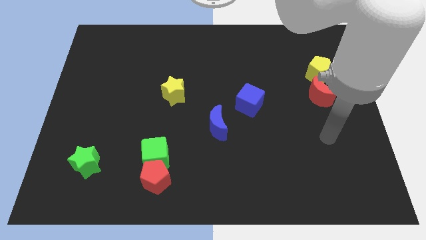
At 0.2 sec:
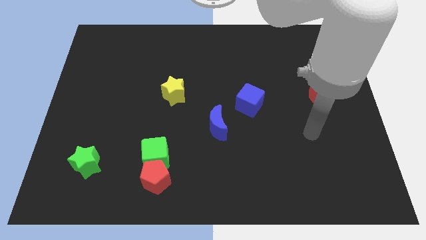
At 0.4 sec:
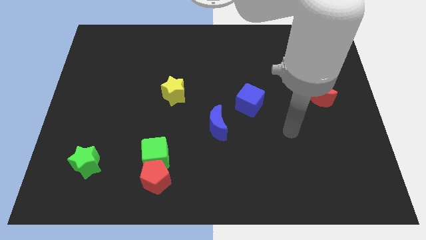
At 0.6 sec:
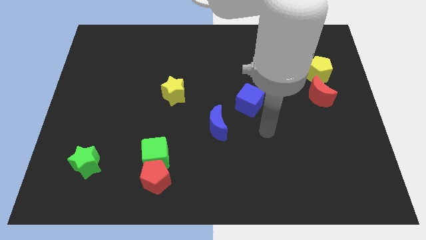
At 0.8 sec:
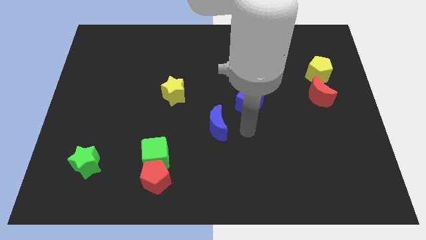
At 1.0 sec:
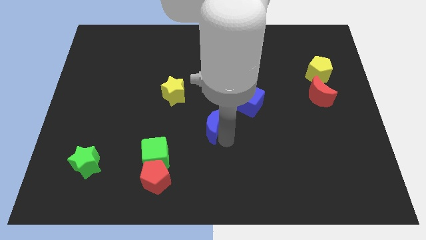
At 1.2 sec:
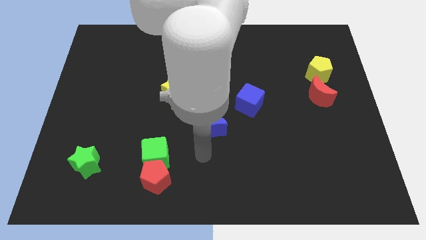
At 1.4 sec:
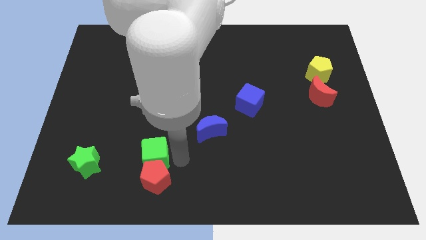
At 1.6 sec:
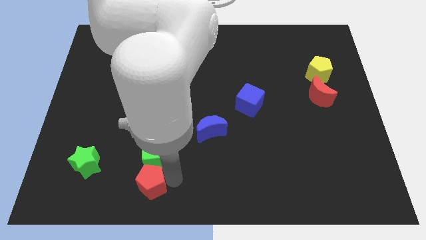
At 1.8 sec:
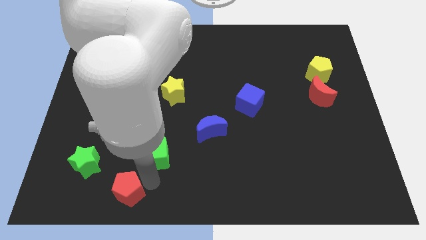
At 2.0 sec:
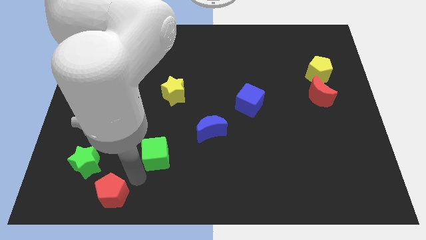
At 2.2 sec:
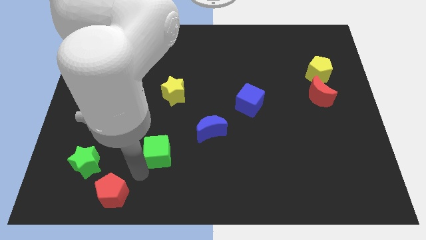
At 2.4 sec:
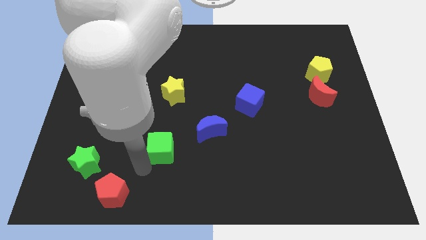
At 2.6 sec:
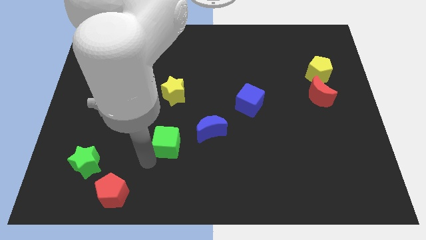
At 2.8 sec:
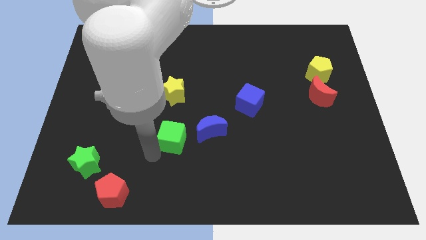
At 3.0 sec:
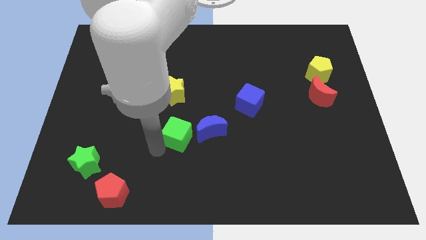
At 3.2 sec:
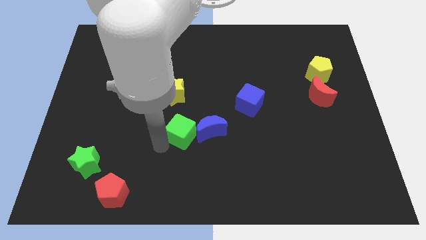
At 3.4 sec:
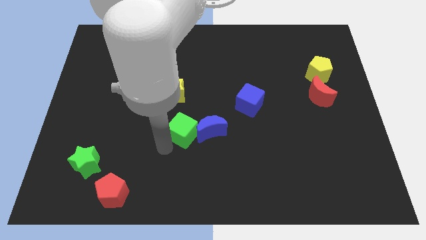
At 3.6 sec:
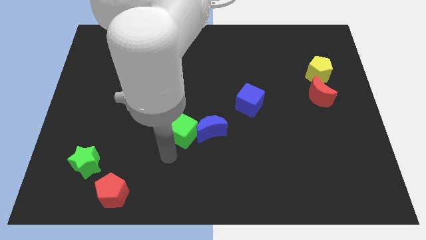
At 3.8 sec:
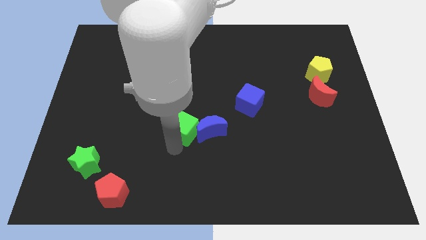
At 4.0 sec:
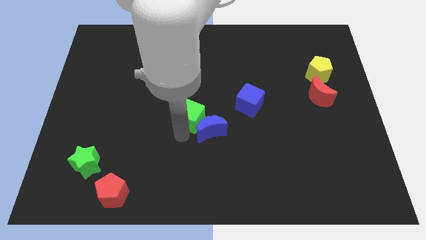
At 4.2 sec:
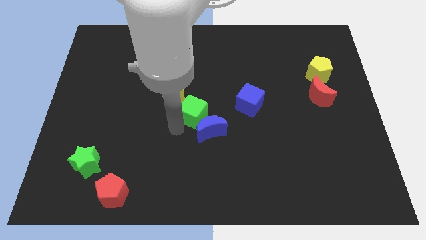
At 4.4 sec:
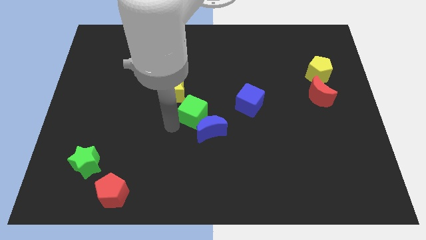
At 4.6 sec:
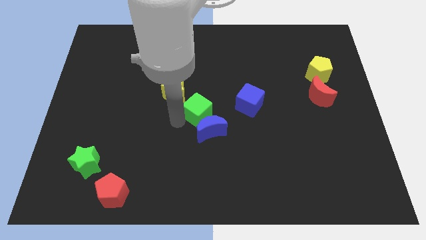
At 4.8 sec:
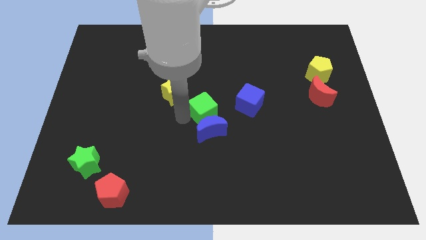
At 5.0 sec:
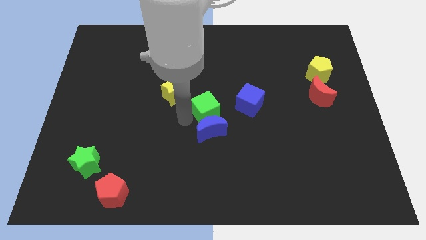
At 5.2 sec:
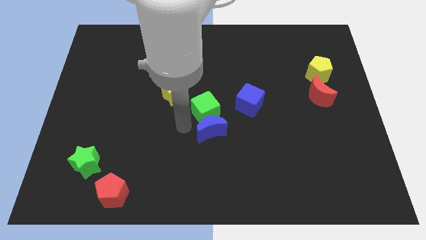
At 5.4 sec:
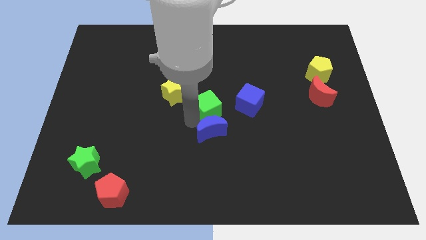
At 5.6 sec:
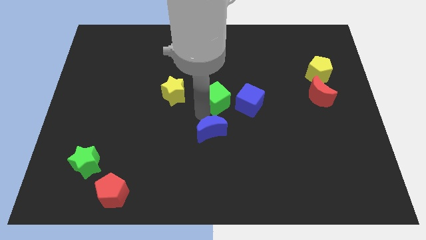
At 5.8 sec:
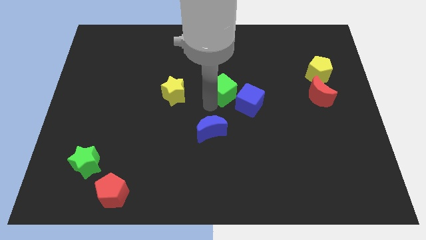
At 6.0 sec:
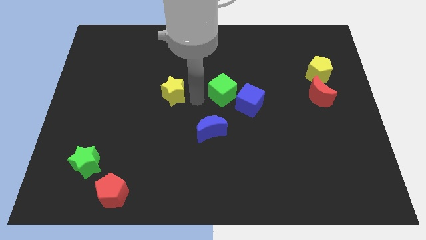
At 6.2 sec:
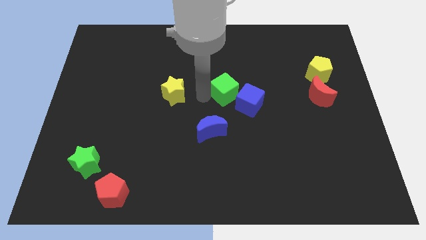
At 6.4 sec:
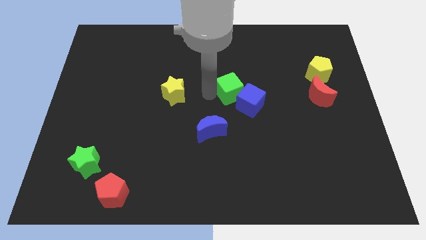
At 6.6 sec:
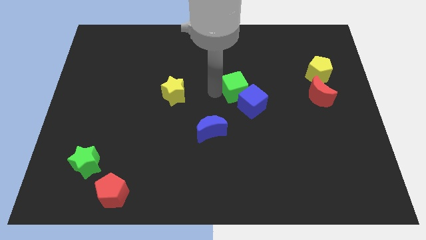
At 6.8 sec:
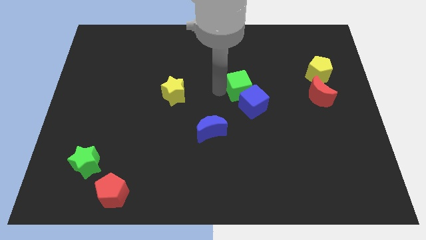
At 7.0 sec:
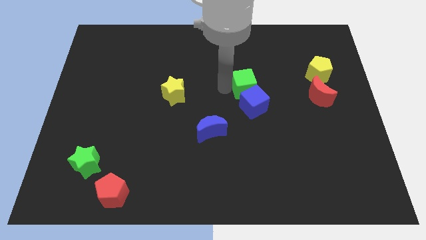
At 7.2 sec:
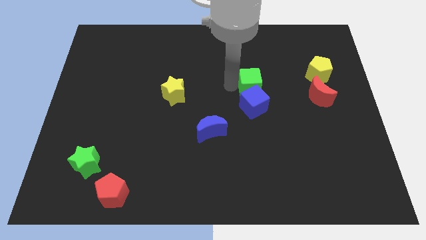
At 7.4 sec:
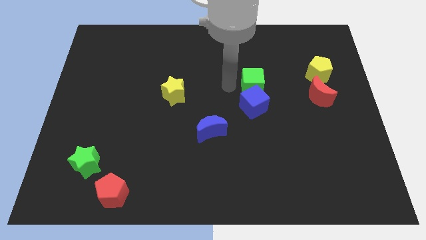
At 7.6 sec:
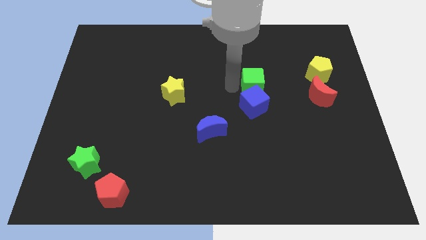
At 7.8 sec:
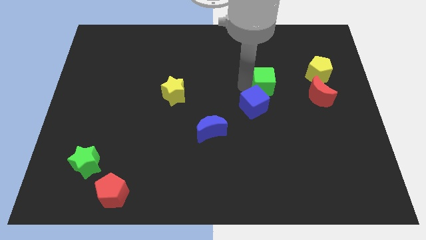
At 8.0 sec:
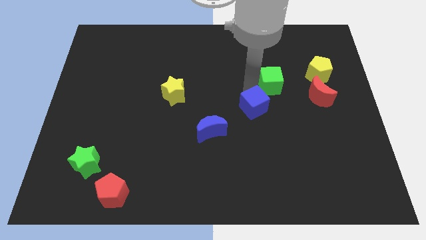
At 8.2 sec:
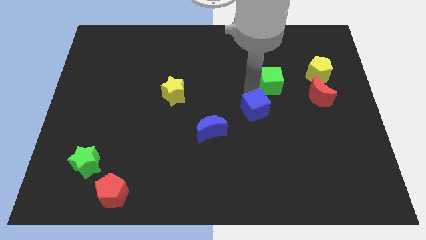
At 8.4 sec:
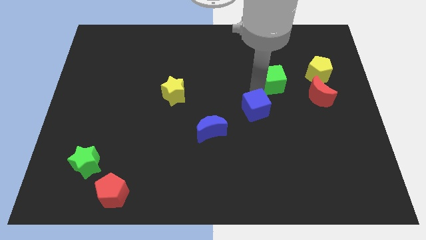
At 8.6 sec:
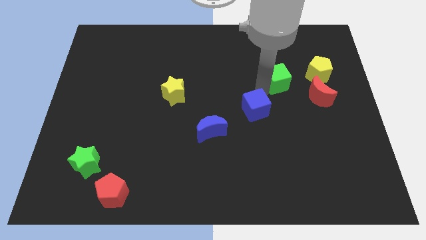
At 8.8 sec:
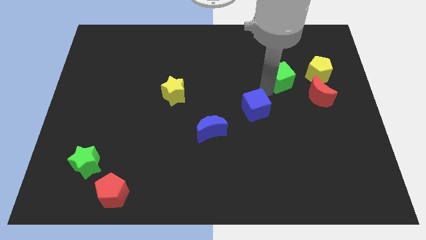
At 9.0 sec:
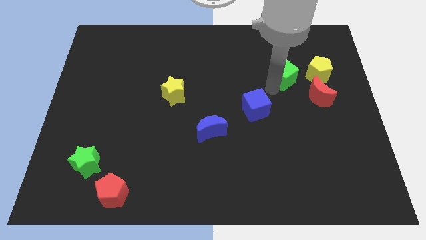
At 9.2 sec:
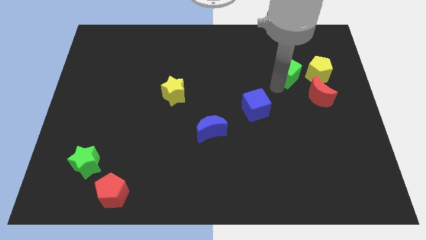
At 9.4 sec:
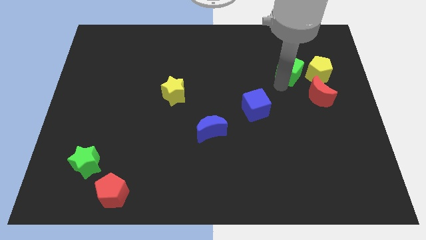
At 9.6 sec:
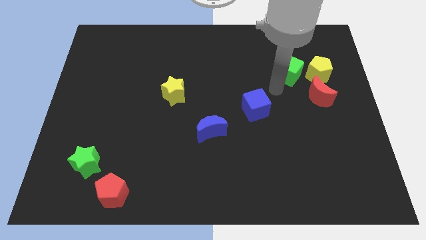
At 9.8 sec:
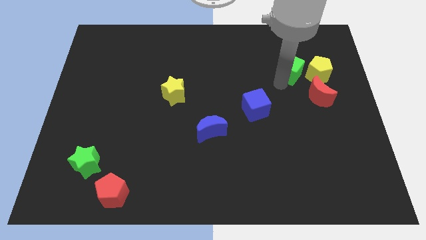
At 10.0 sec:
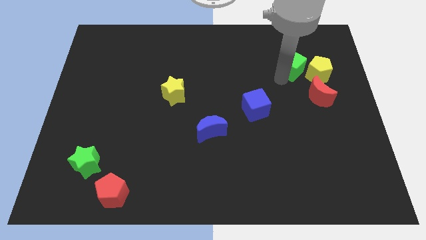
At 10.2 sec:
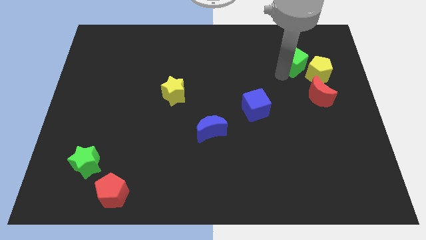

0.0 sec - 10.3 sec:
slide the green cube to the top of the red moon

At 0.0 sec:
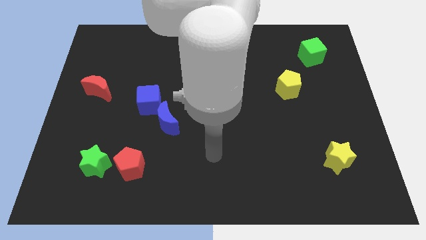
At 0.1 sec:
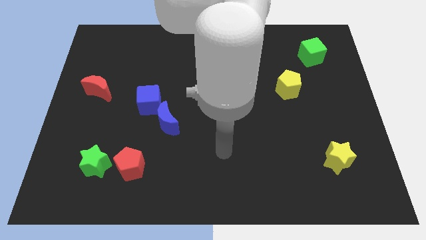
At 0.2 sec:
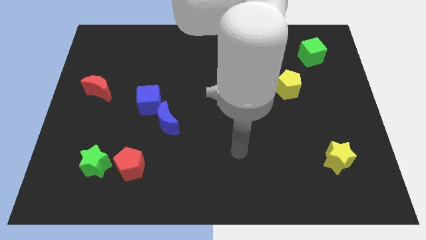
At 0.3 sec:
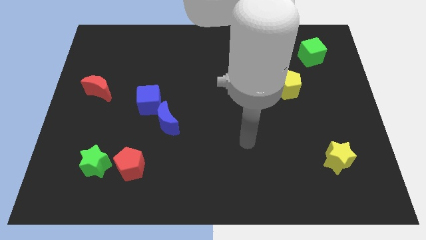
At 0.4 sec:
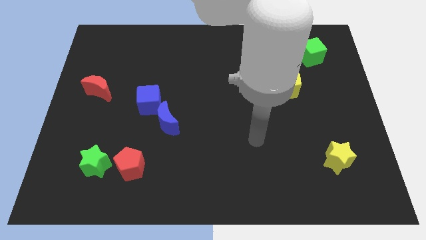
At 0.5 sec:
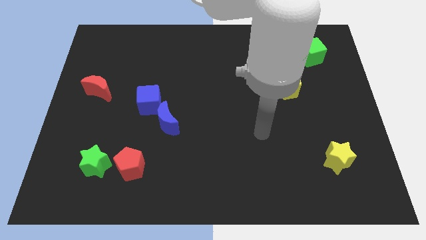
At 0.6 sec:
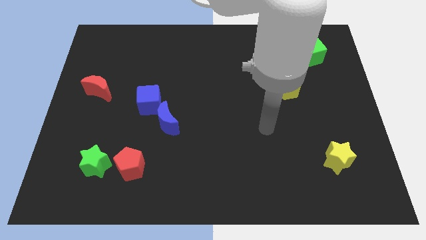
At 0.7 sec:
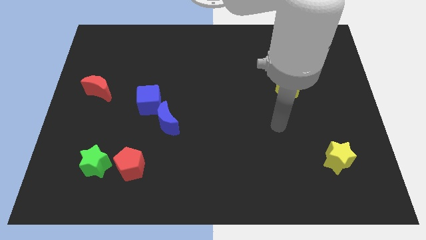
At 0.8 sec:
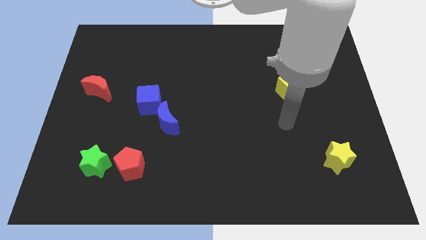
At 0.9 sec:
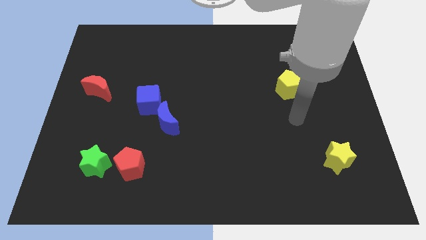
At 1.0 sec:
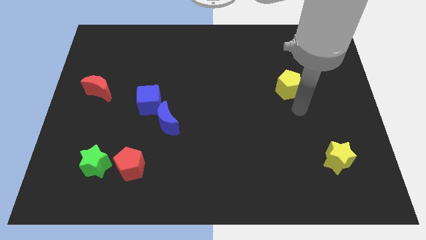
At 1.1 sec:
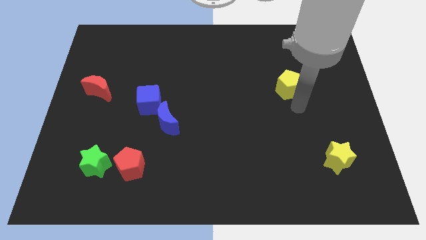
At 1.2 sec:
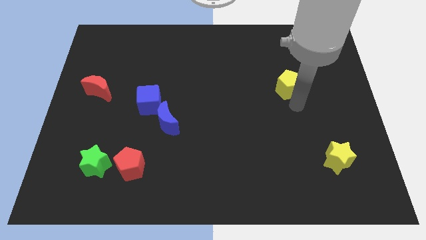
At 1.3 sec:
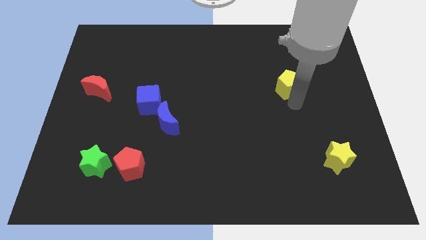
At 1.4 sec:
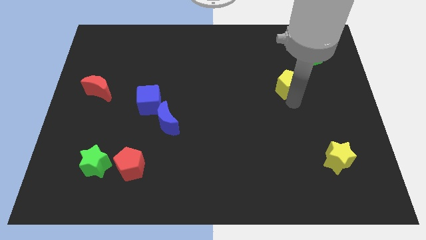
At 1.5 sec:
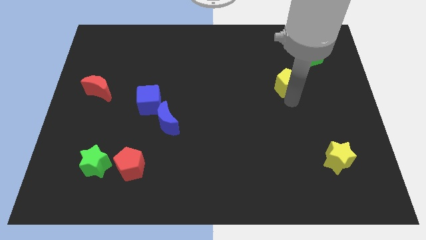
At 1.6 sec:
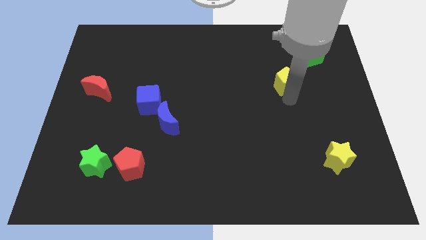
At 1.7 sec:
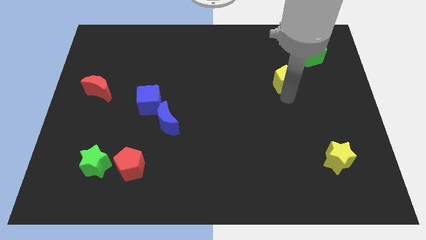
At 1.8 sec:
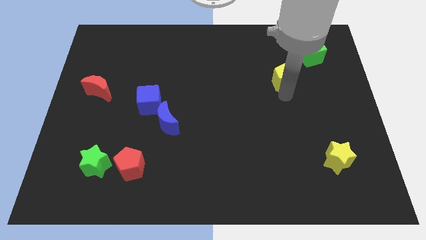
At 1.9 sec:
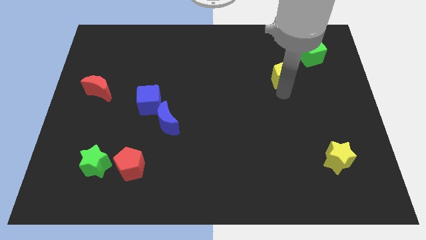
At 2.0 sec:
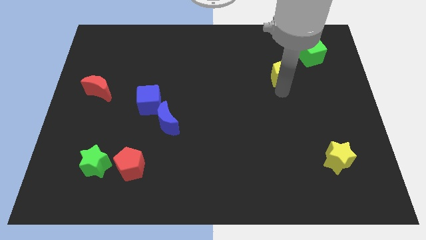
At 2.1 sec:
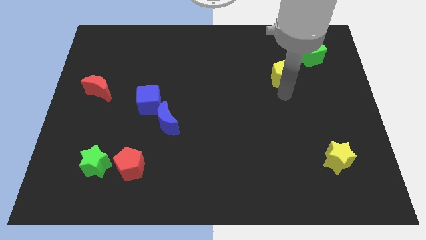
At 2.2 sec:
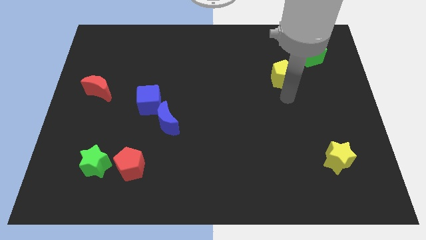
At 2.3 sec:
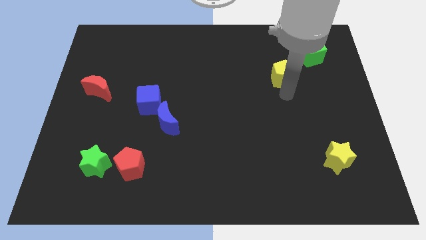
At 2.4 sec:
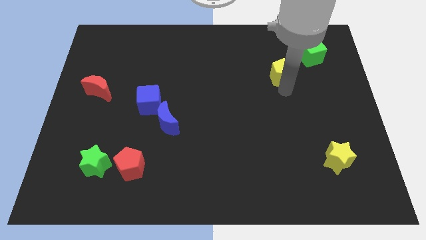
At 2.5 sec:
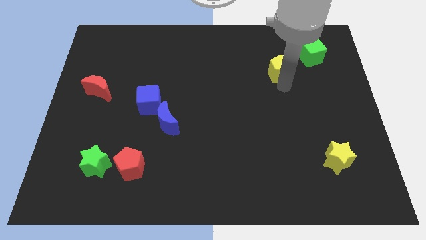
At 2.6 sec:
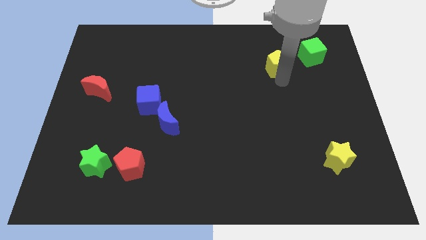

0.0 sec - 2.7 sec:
put the yellow pentagon left of the green cube
